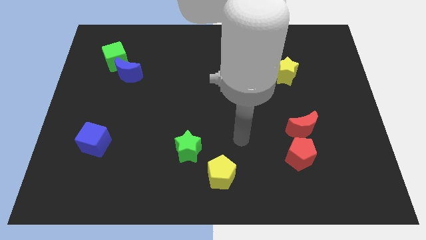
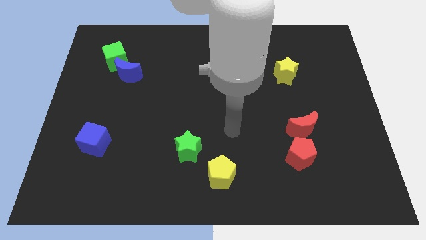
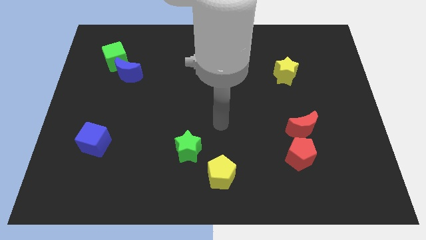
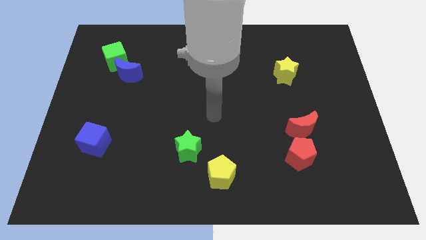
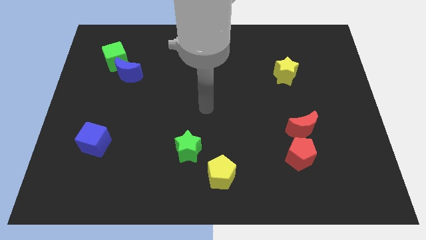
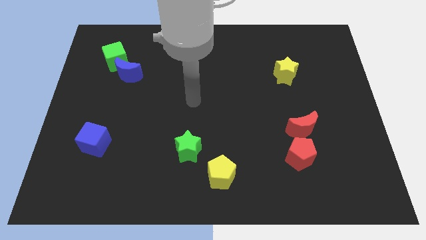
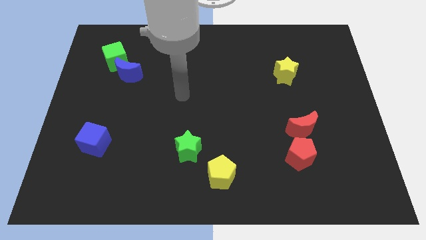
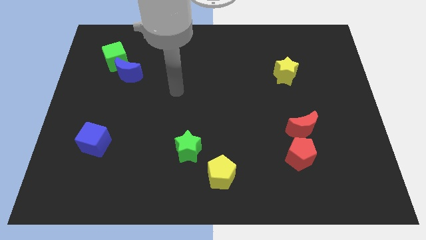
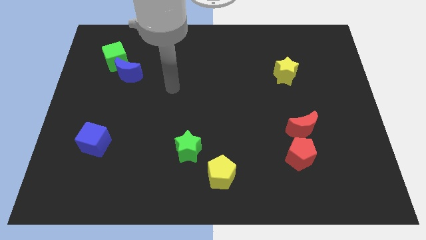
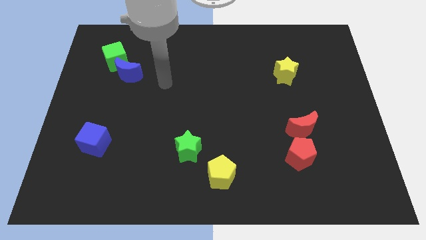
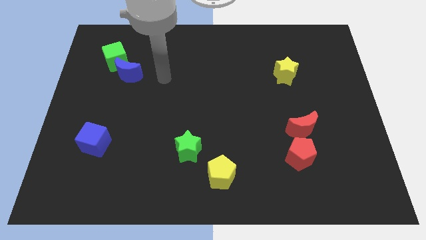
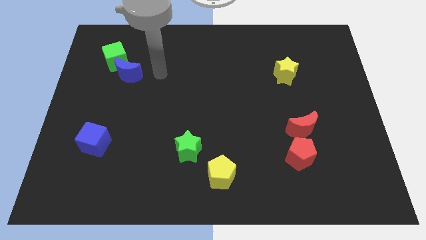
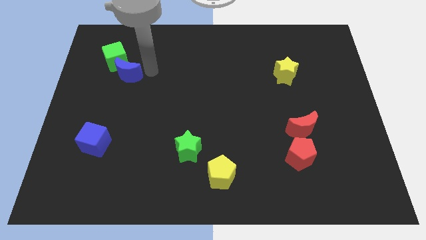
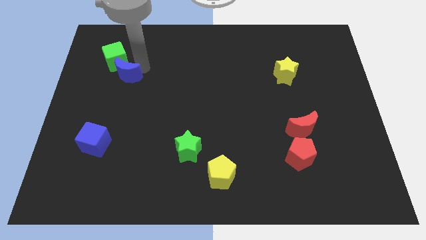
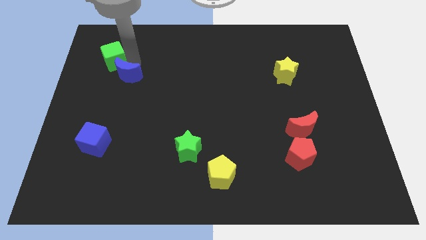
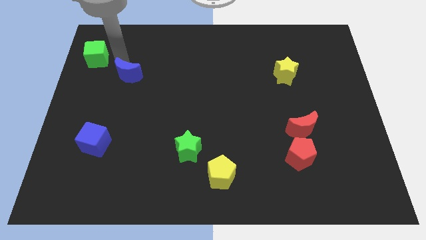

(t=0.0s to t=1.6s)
pull the blue moon apart from the green cube

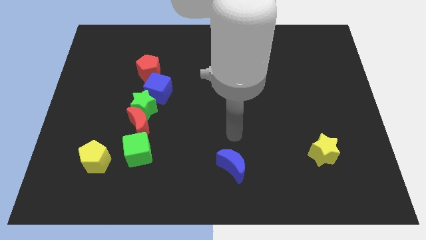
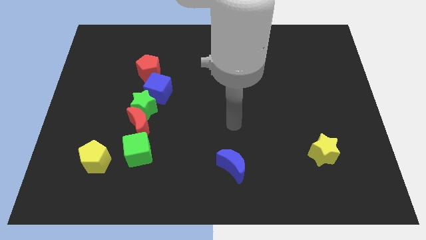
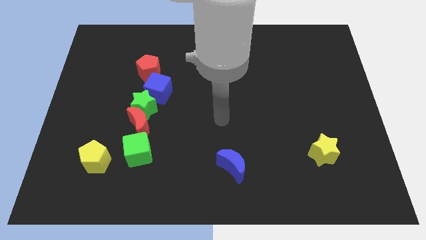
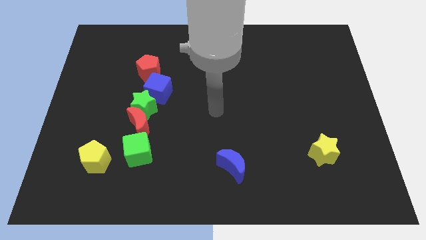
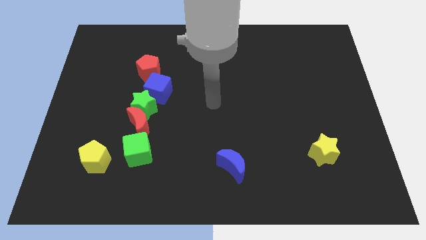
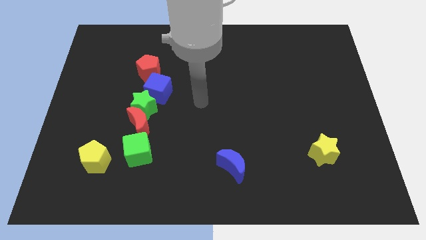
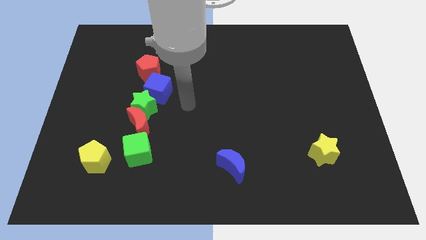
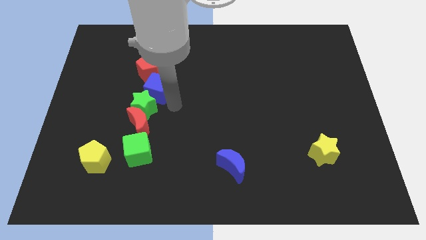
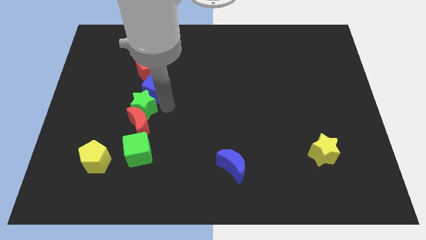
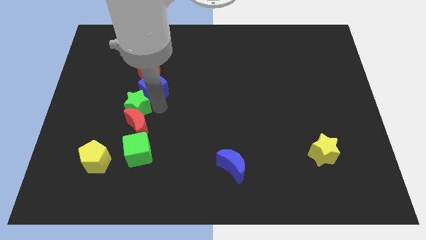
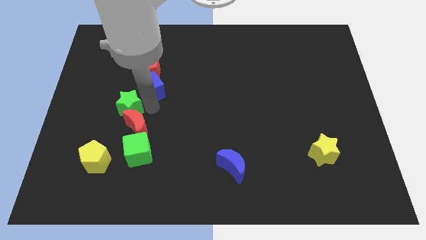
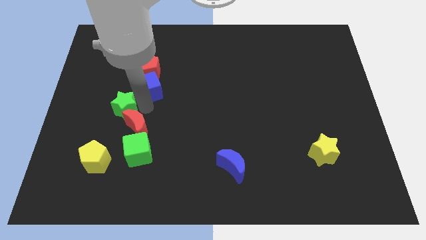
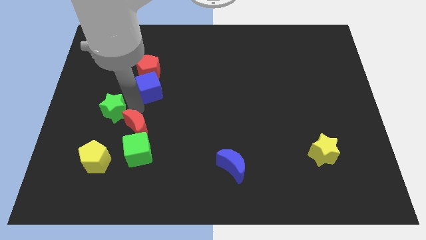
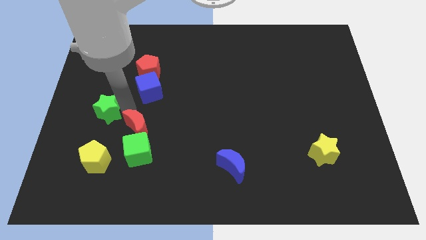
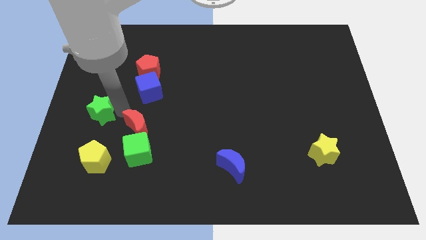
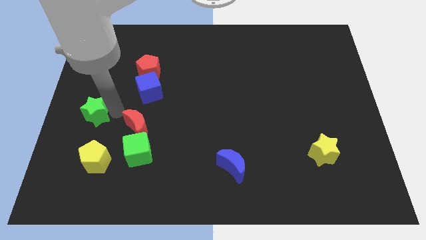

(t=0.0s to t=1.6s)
pull the green star apart from the red moon and blue cube

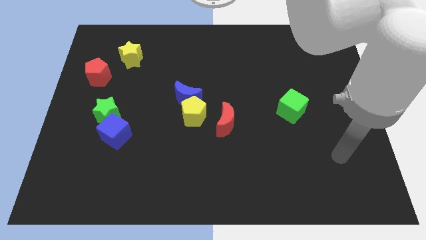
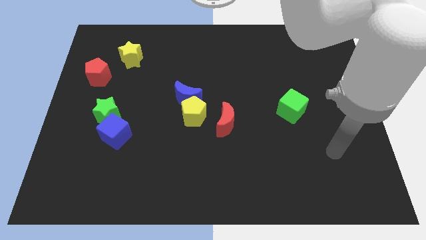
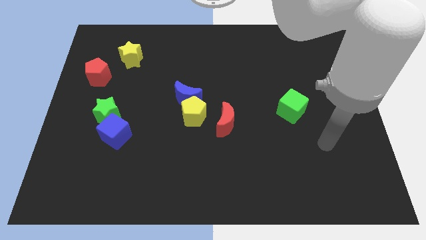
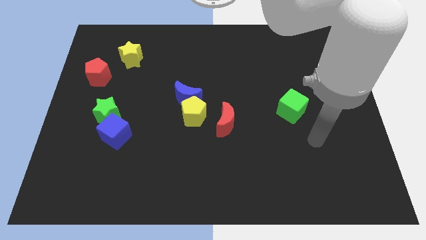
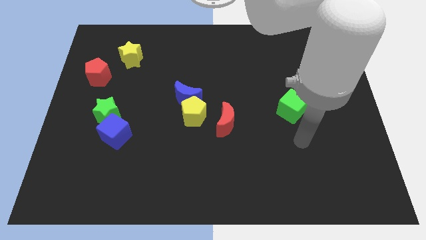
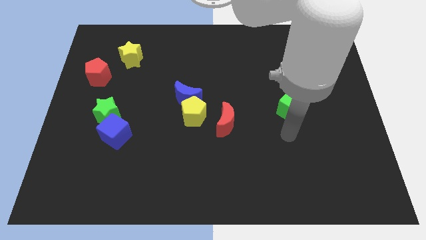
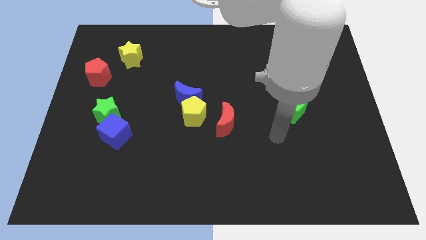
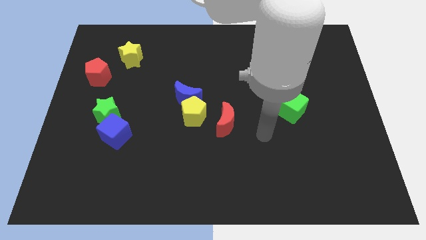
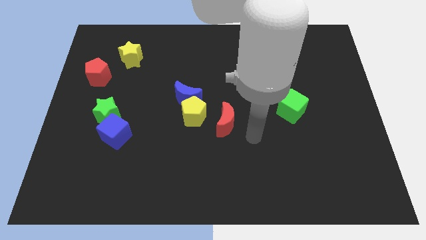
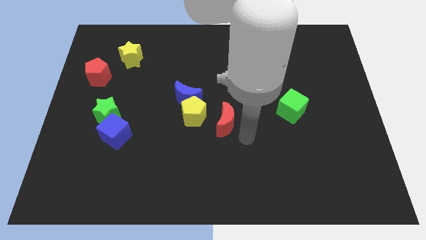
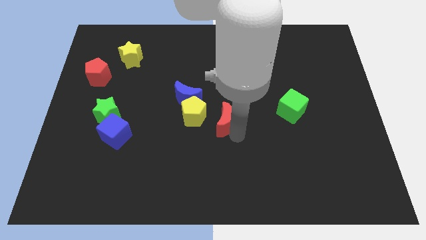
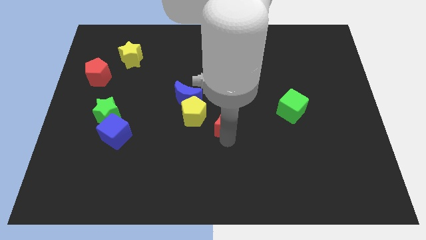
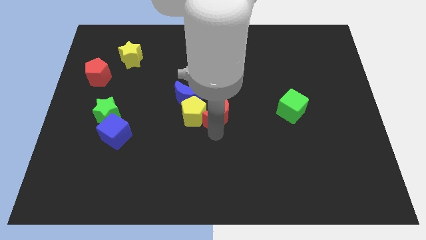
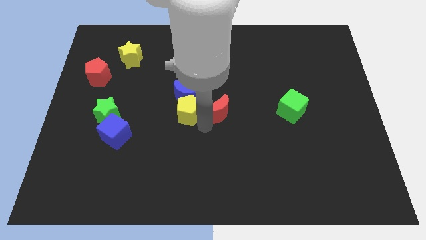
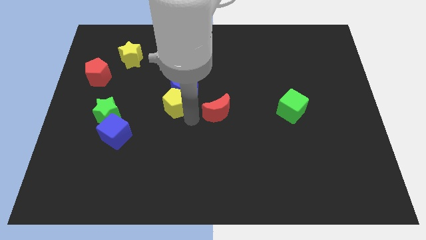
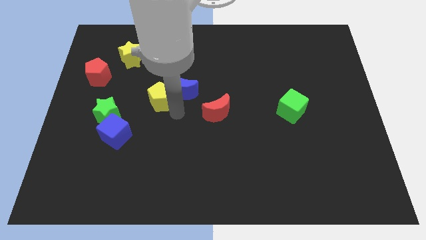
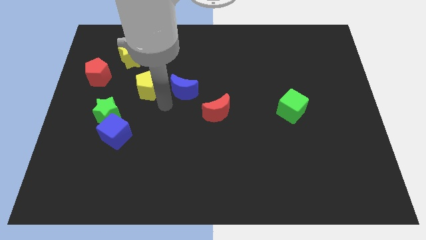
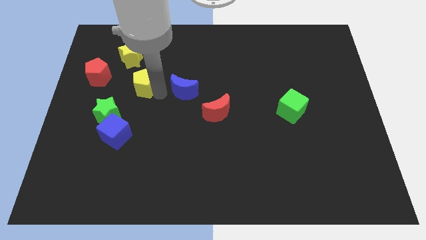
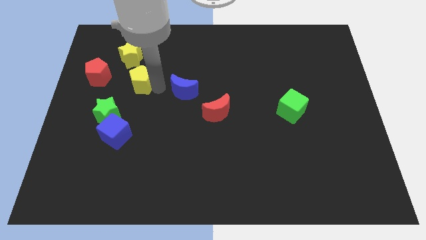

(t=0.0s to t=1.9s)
pull the blue moon apart from the yellow pentagon

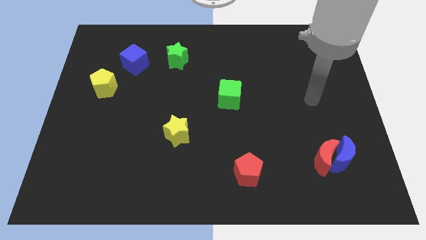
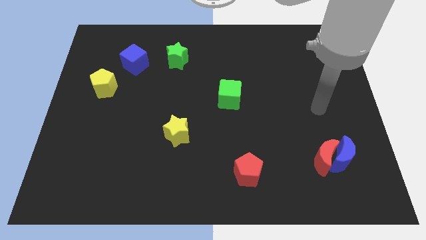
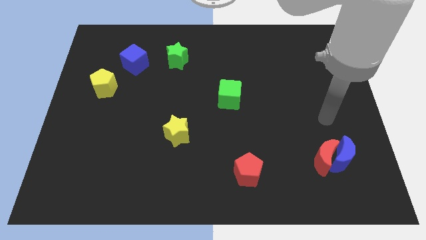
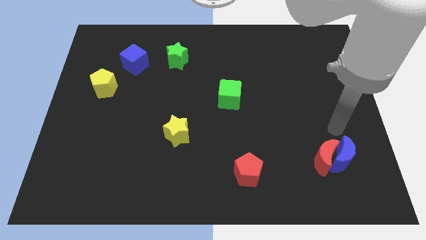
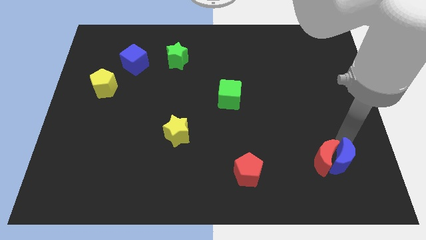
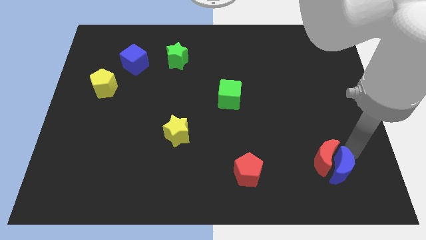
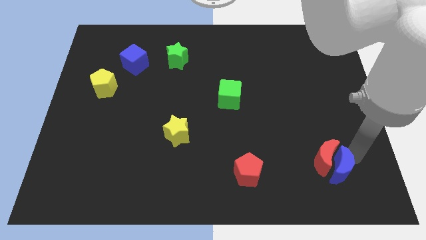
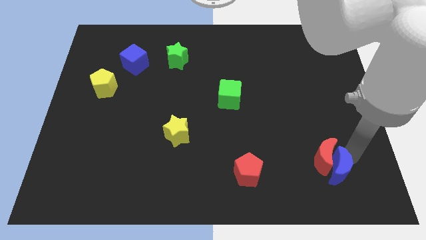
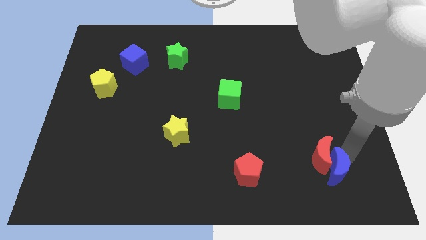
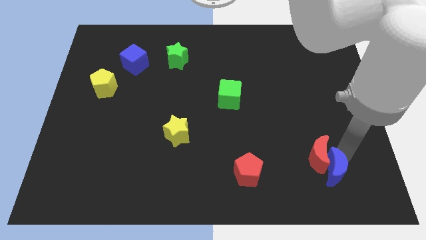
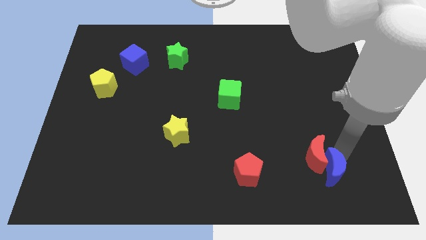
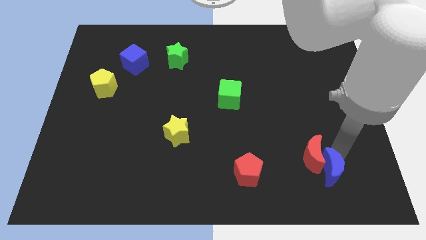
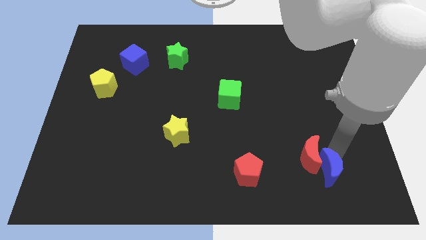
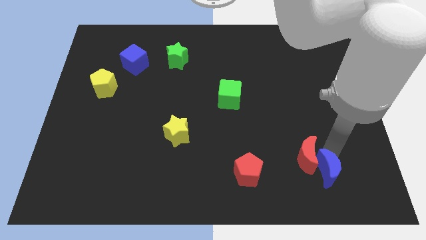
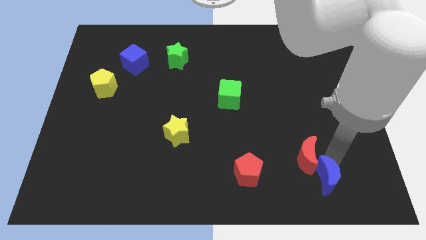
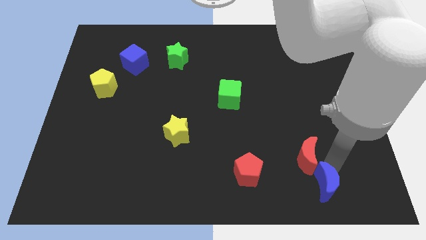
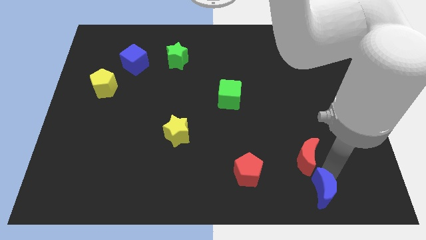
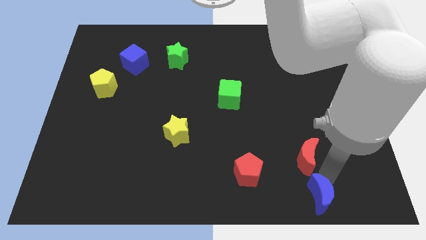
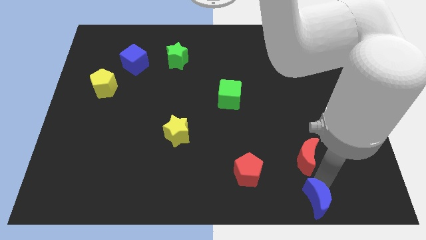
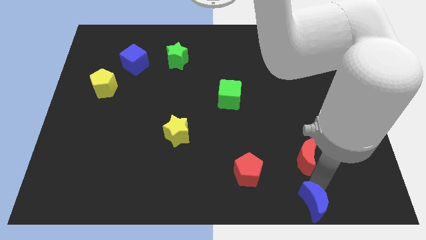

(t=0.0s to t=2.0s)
separate the red moon from the blue moon

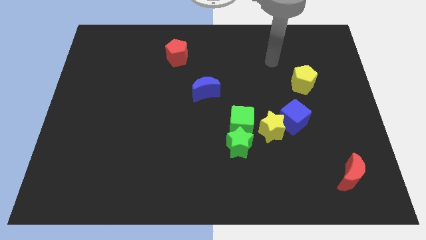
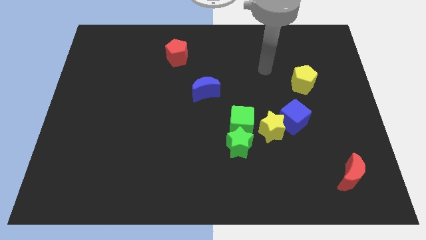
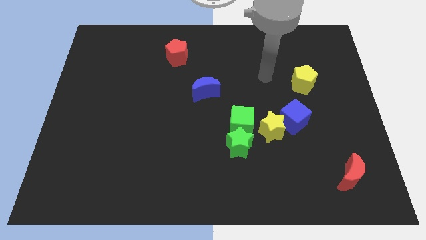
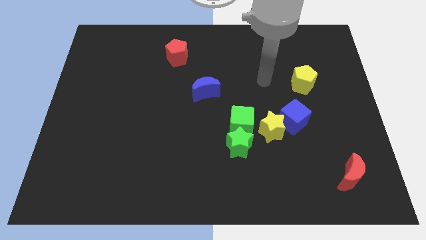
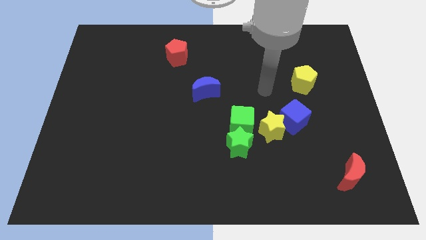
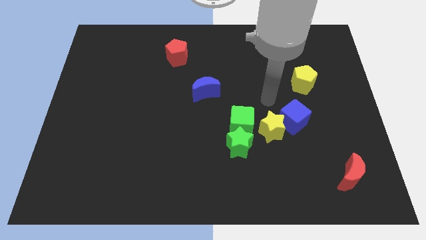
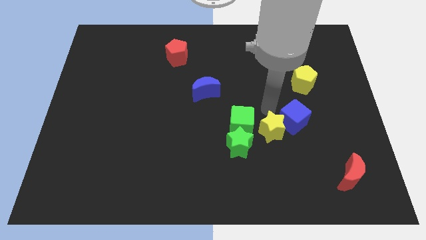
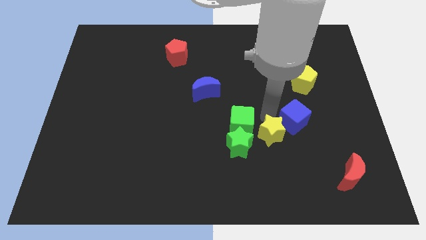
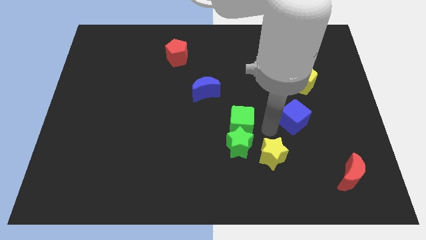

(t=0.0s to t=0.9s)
move the blue cube away from the yellow star

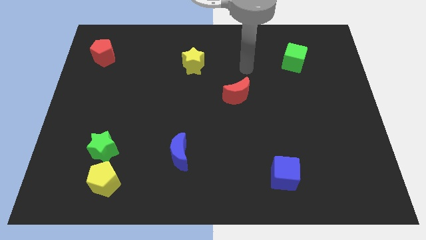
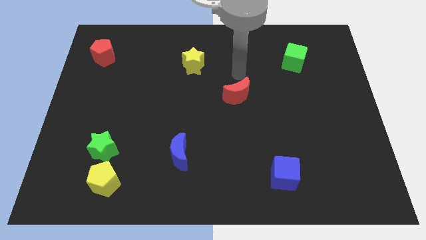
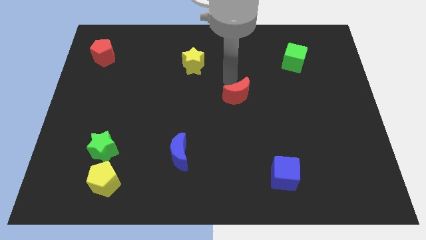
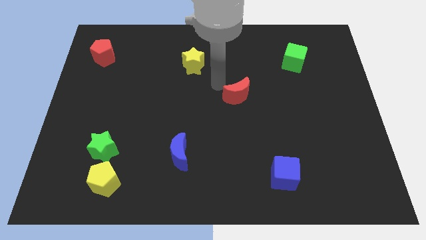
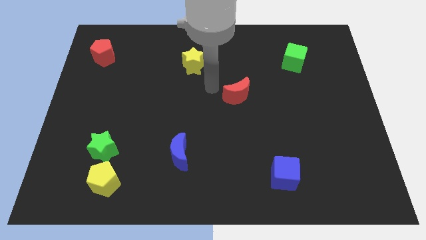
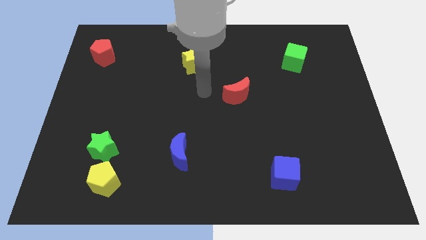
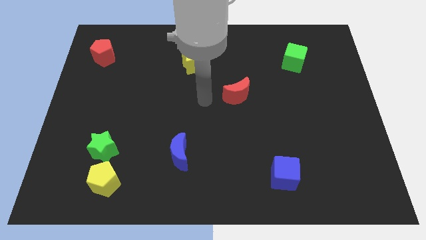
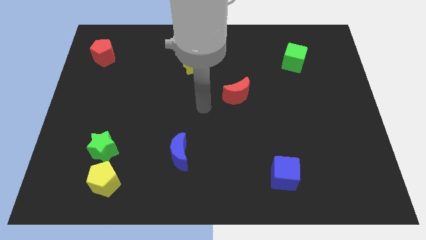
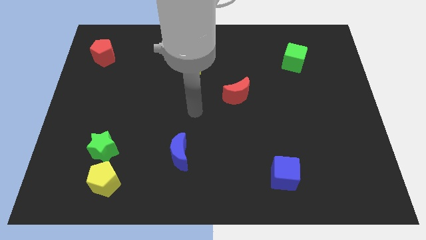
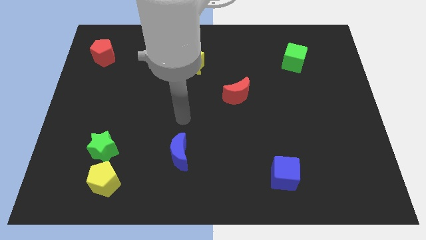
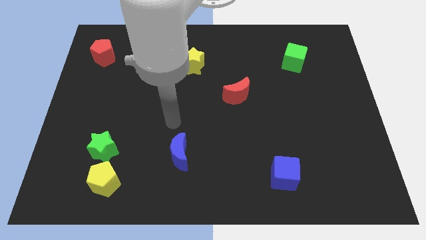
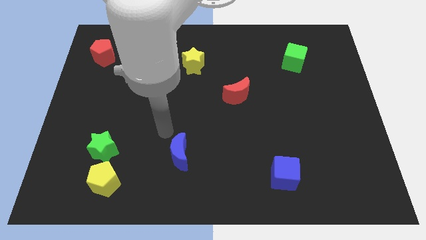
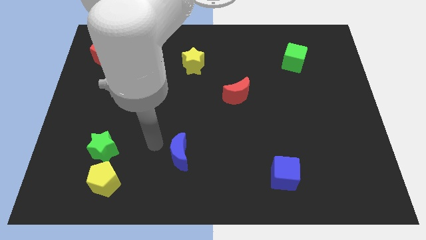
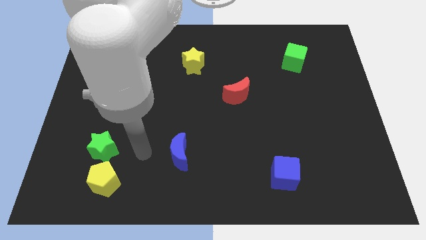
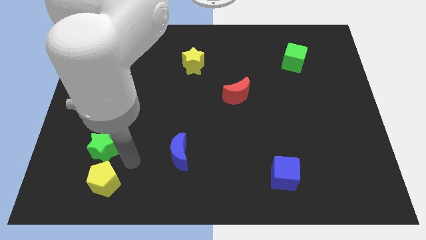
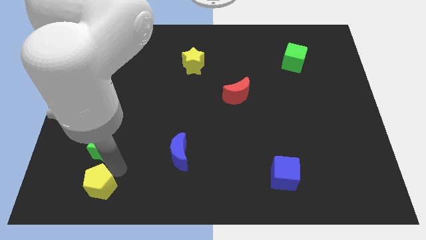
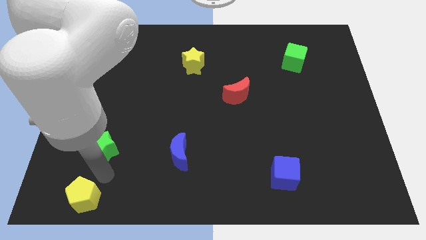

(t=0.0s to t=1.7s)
move the green star away from the yellow pentagon
